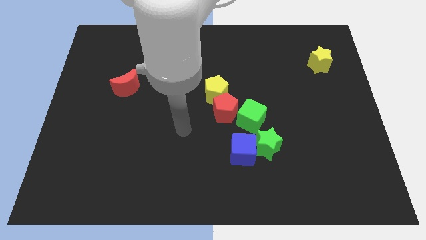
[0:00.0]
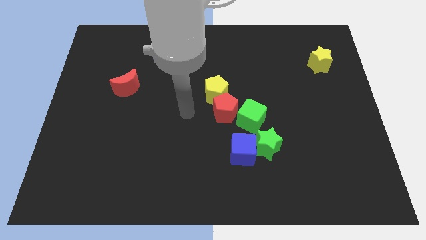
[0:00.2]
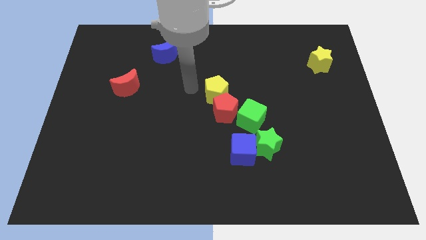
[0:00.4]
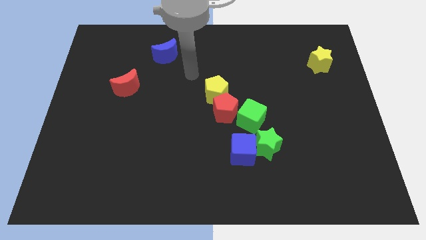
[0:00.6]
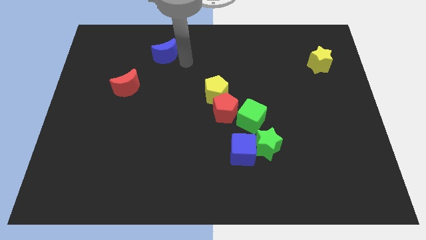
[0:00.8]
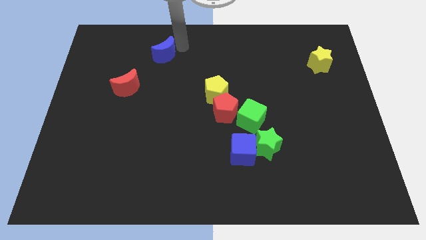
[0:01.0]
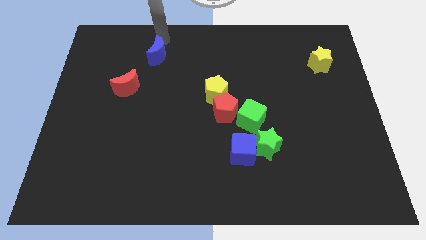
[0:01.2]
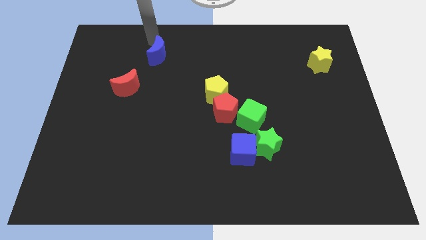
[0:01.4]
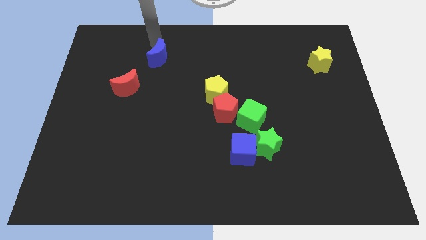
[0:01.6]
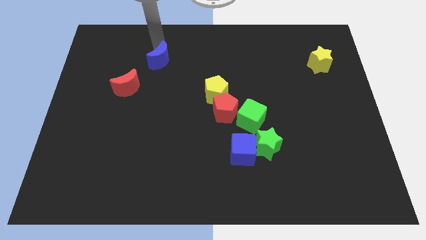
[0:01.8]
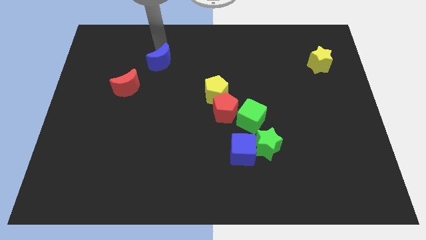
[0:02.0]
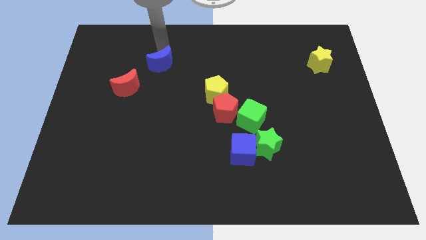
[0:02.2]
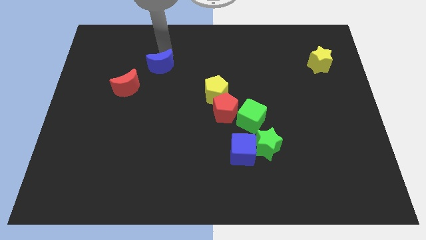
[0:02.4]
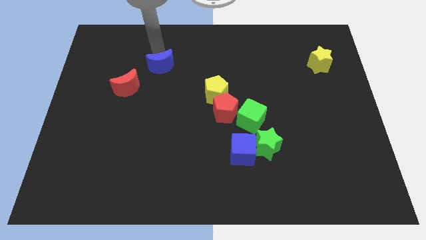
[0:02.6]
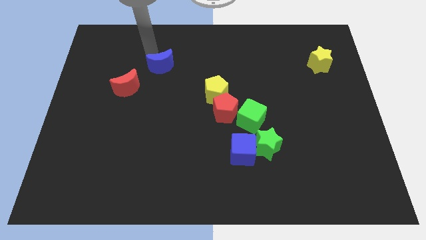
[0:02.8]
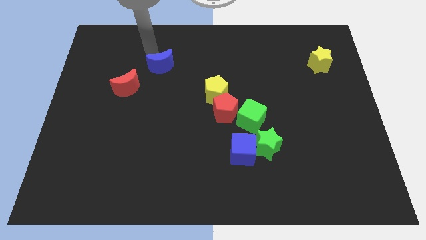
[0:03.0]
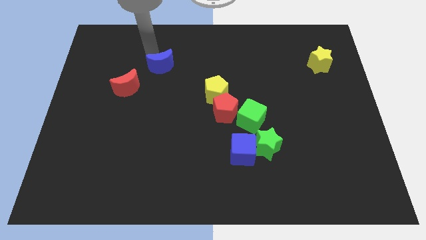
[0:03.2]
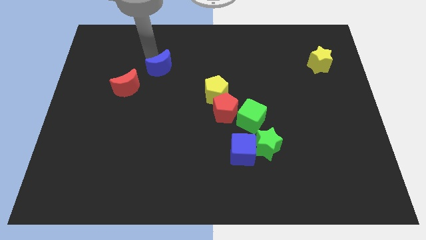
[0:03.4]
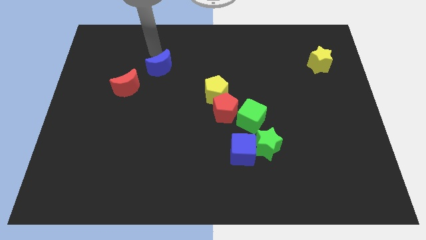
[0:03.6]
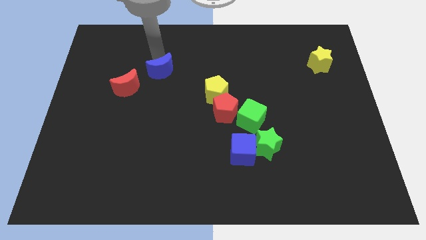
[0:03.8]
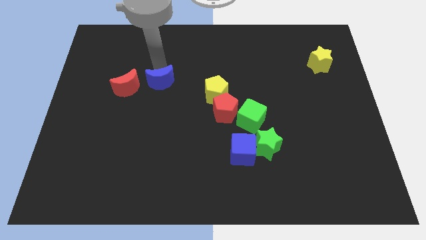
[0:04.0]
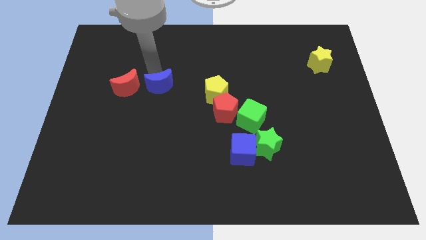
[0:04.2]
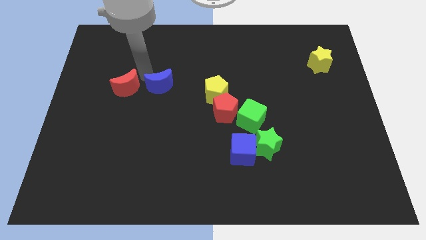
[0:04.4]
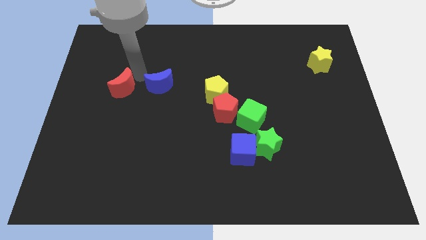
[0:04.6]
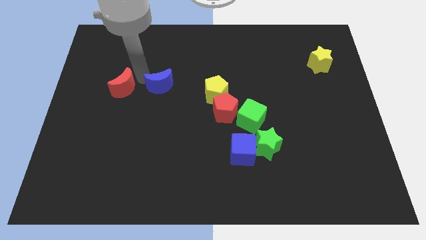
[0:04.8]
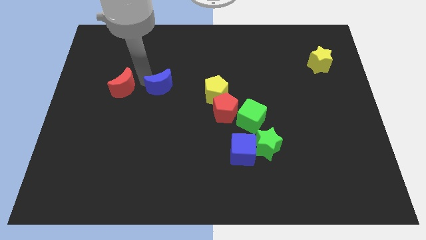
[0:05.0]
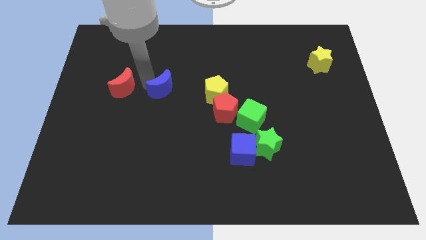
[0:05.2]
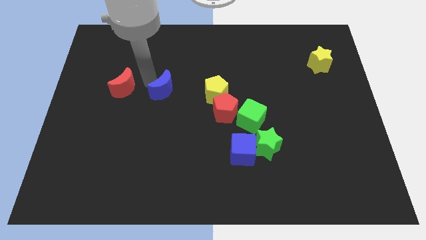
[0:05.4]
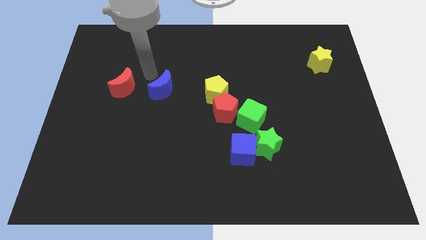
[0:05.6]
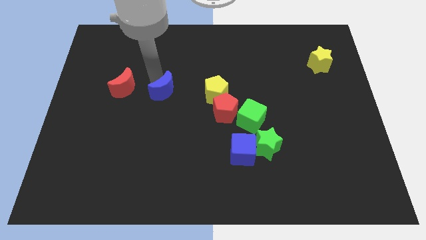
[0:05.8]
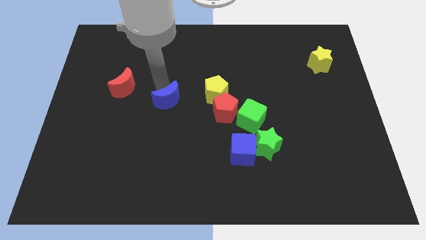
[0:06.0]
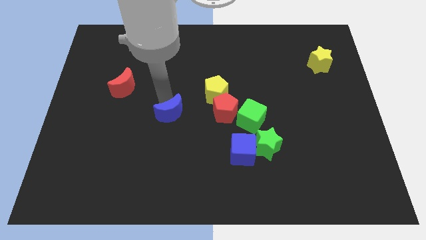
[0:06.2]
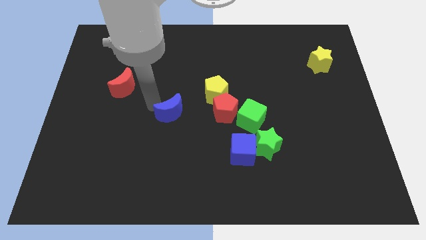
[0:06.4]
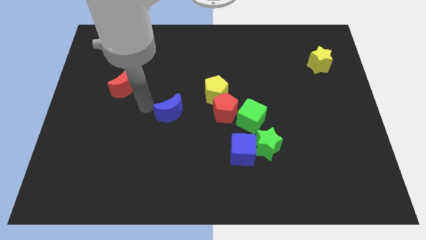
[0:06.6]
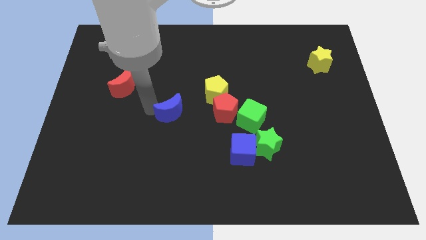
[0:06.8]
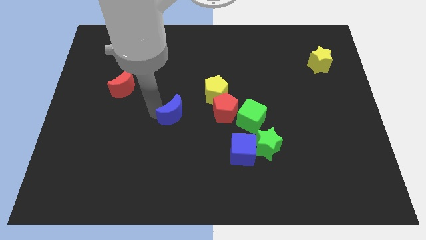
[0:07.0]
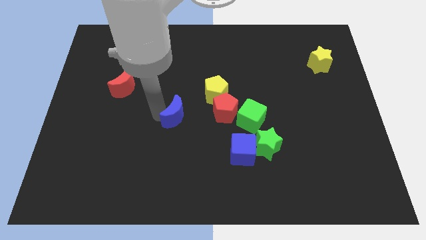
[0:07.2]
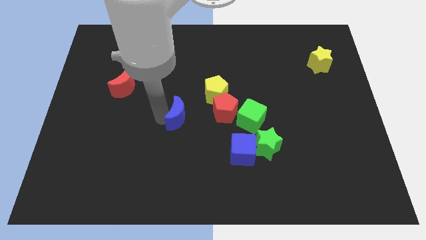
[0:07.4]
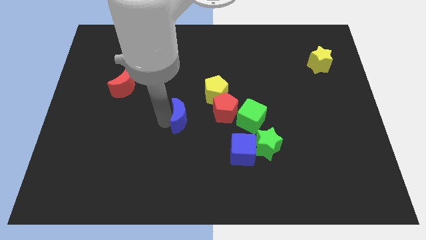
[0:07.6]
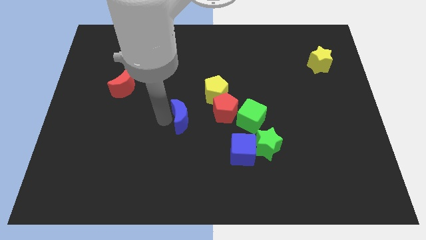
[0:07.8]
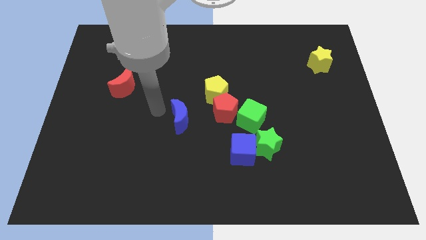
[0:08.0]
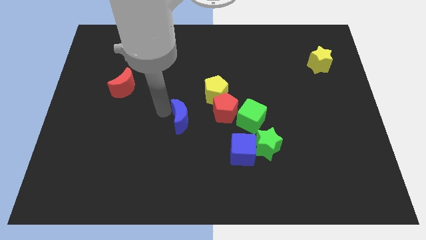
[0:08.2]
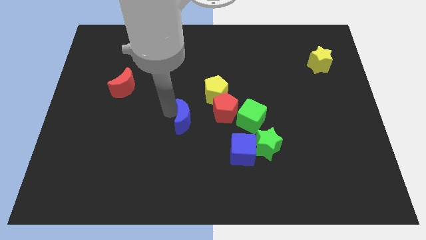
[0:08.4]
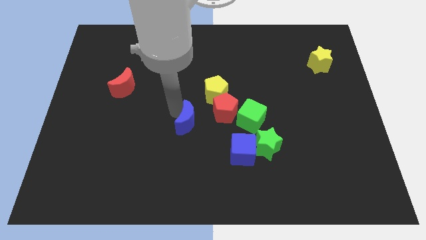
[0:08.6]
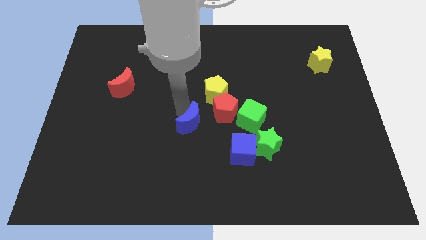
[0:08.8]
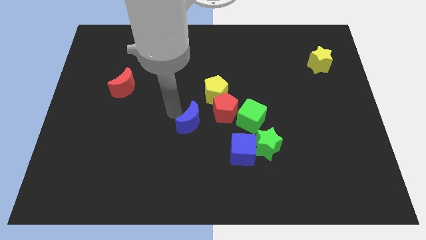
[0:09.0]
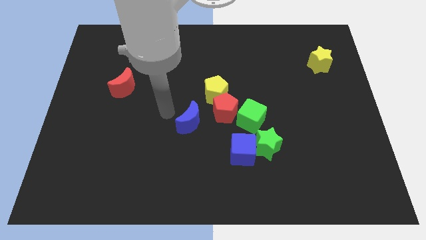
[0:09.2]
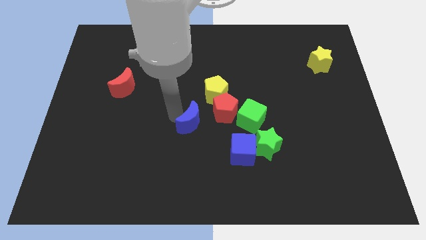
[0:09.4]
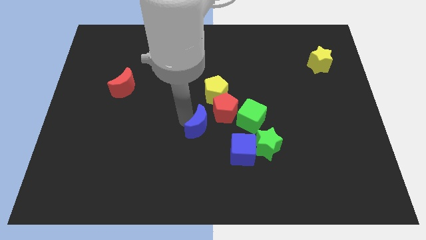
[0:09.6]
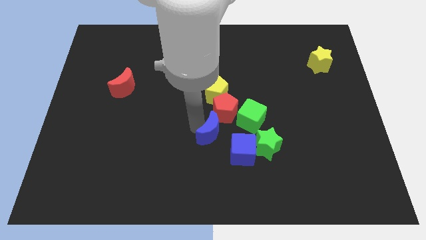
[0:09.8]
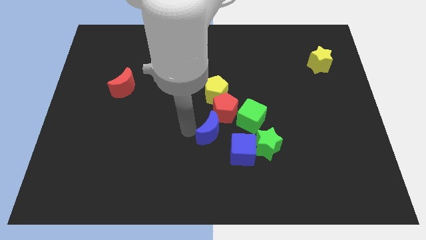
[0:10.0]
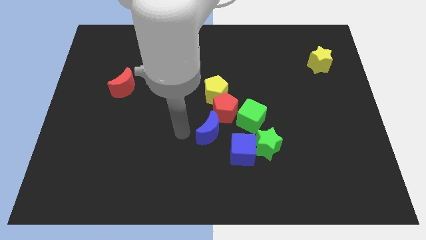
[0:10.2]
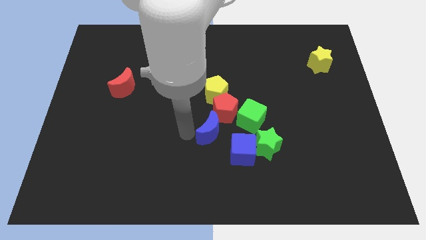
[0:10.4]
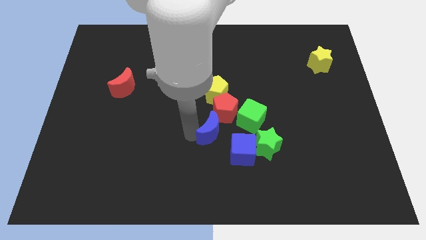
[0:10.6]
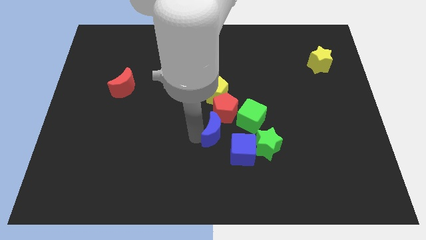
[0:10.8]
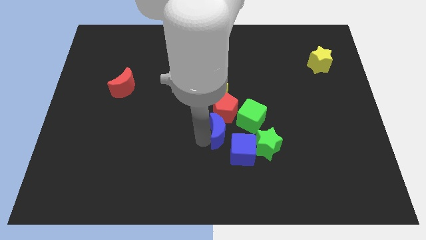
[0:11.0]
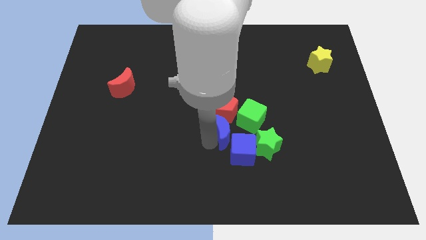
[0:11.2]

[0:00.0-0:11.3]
move the blue moon diagonally down and to the right of the red pentagon
